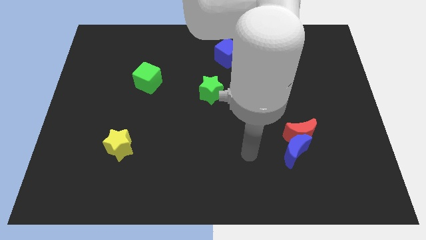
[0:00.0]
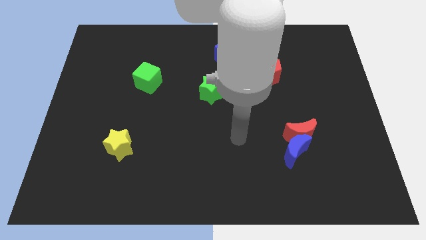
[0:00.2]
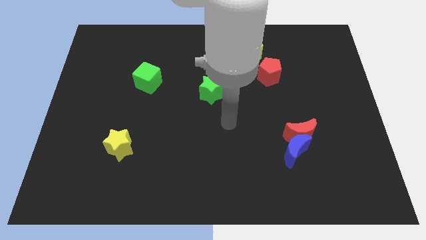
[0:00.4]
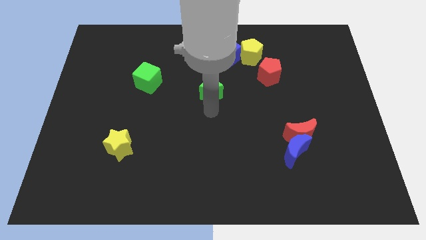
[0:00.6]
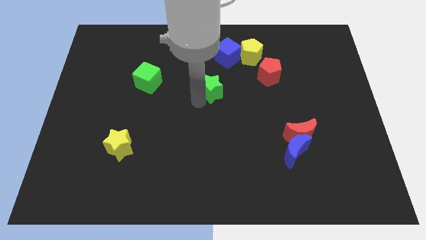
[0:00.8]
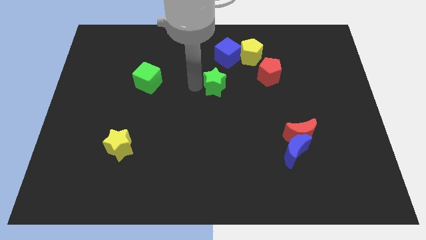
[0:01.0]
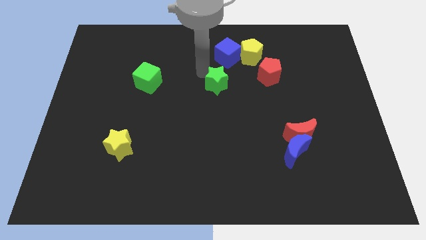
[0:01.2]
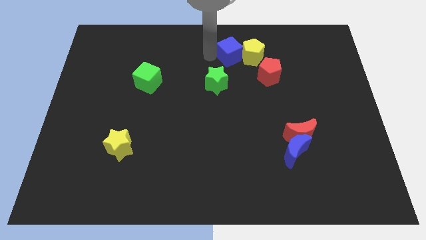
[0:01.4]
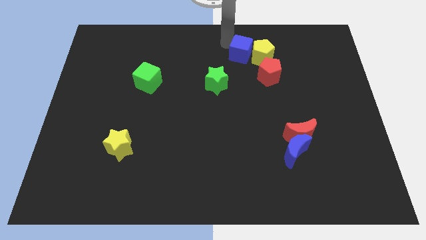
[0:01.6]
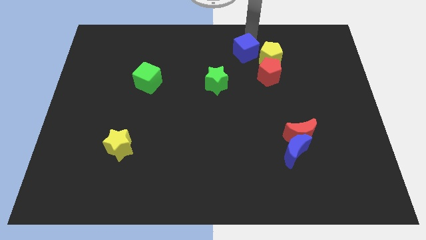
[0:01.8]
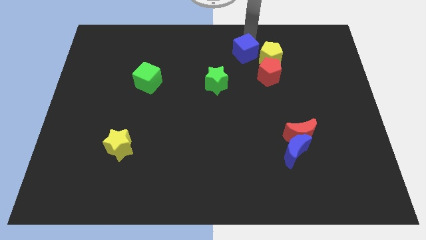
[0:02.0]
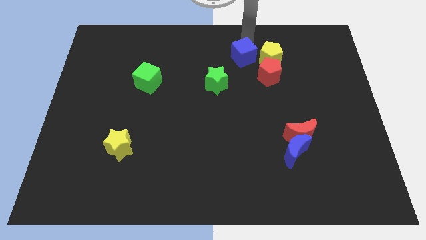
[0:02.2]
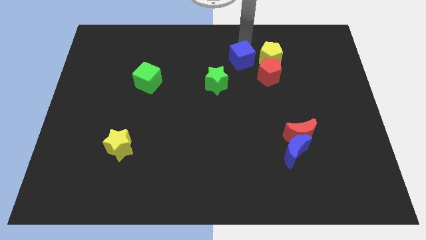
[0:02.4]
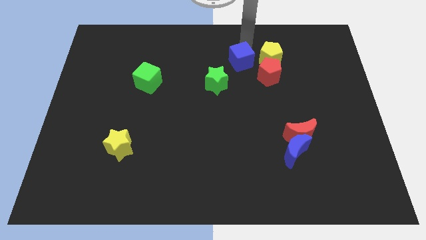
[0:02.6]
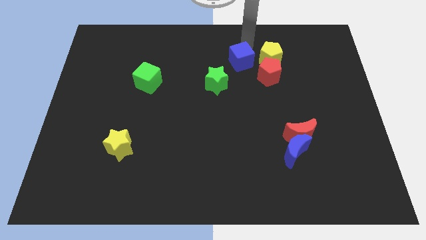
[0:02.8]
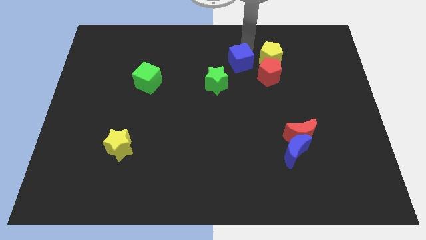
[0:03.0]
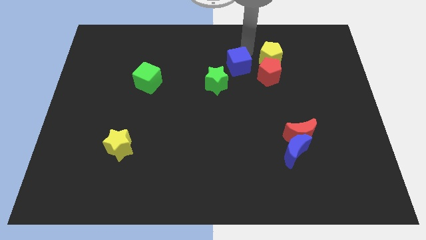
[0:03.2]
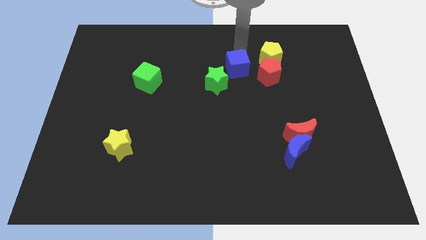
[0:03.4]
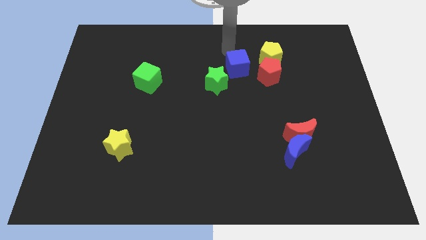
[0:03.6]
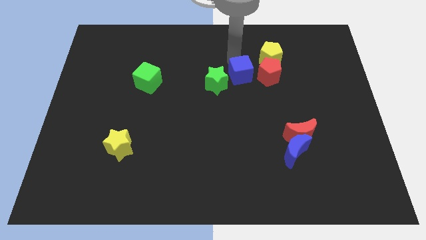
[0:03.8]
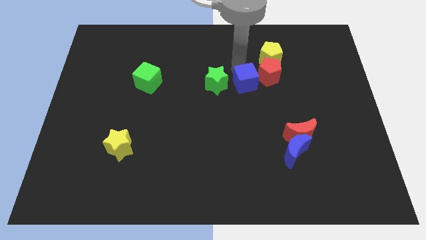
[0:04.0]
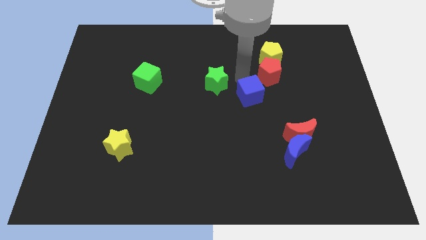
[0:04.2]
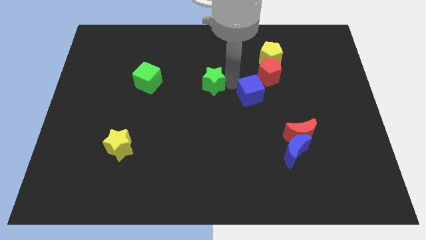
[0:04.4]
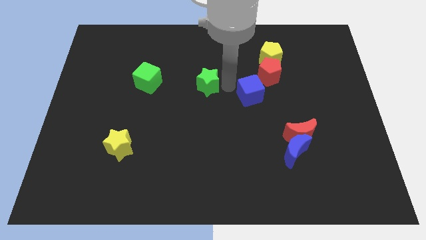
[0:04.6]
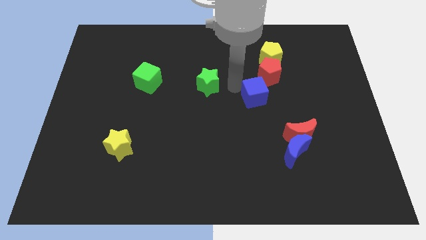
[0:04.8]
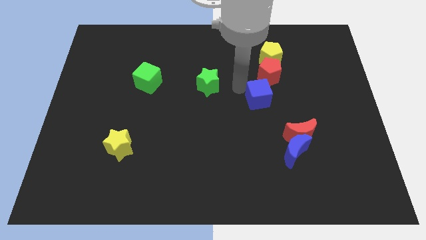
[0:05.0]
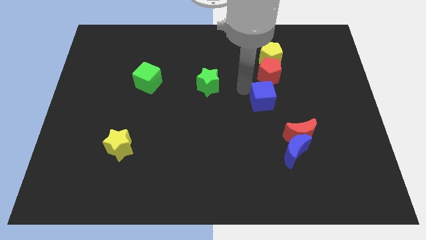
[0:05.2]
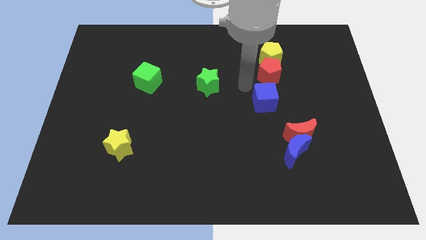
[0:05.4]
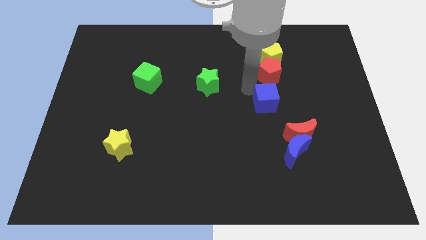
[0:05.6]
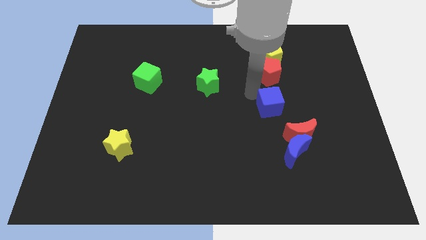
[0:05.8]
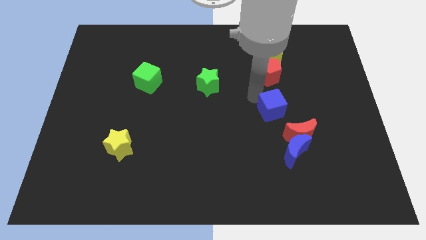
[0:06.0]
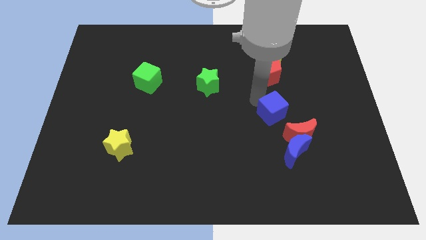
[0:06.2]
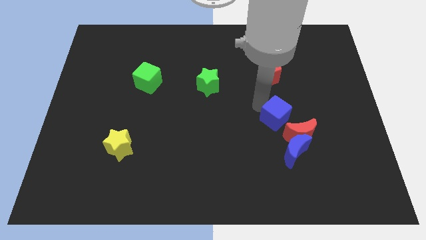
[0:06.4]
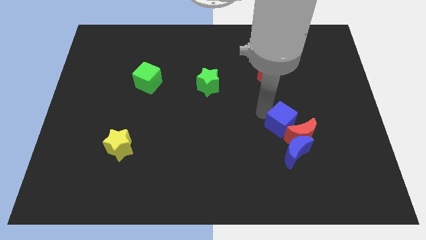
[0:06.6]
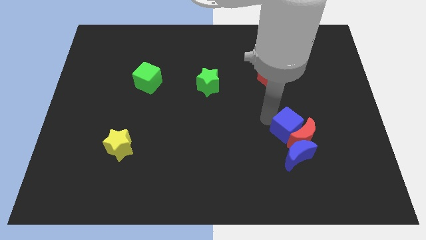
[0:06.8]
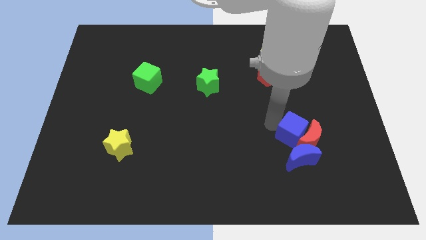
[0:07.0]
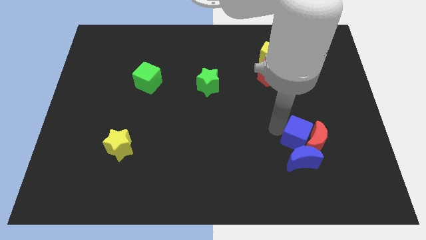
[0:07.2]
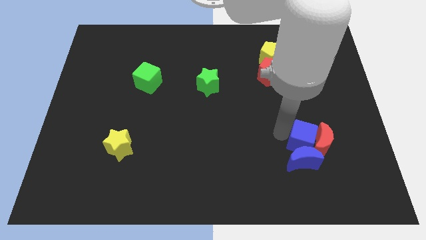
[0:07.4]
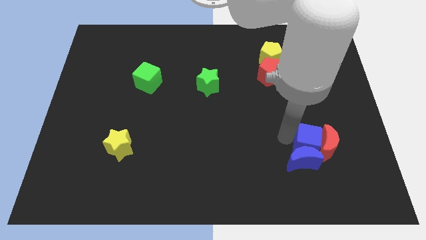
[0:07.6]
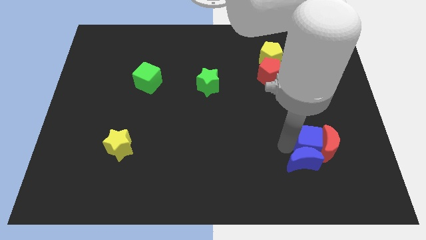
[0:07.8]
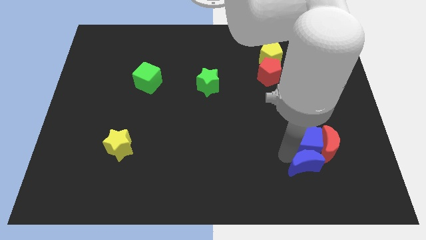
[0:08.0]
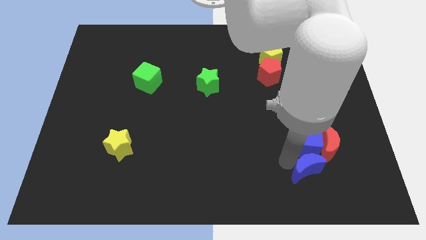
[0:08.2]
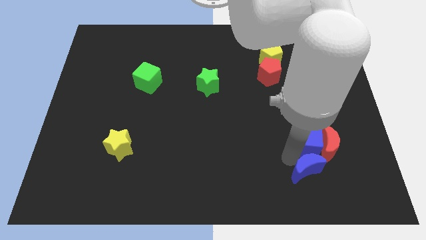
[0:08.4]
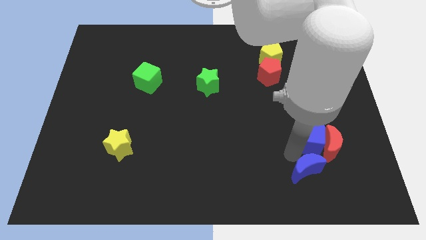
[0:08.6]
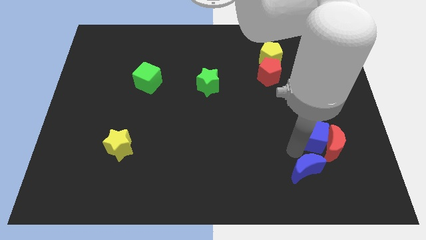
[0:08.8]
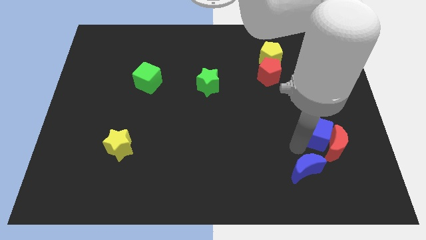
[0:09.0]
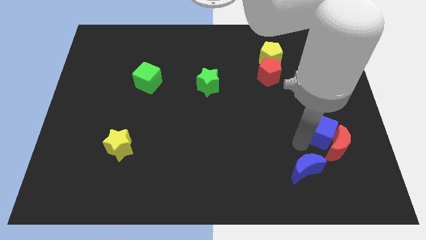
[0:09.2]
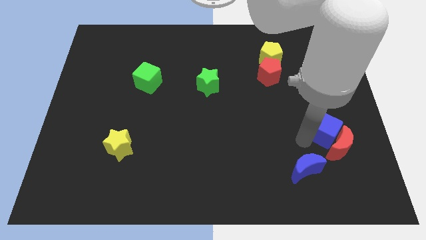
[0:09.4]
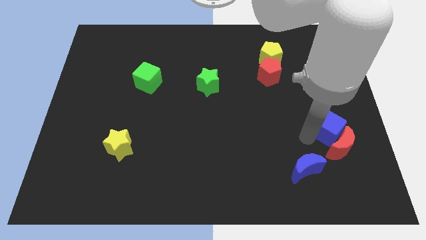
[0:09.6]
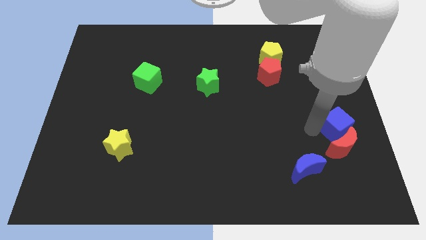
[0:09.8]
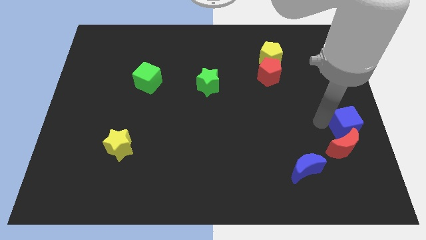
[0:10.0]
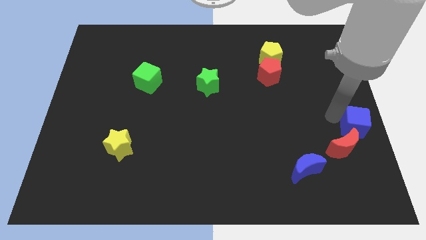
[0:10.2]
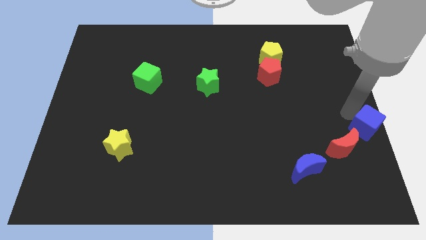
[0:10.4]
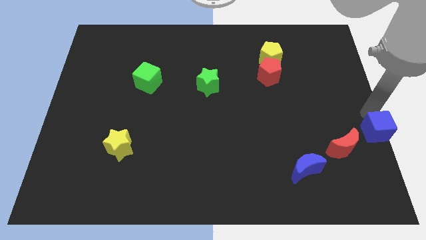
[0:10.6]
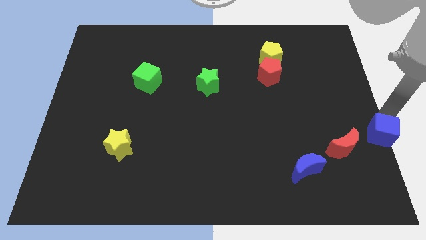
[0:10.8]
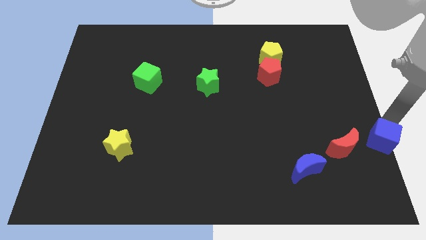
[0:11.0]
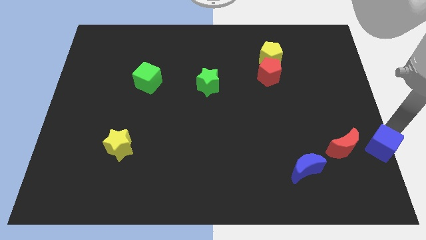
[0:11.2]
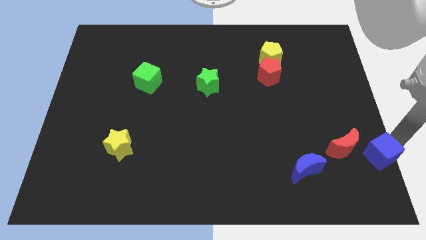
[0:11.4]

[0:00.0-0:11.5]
push the blue cube to the lower right corner
